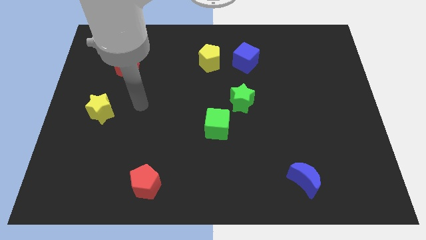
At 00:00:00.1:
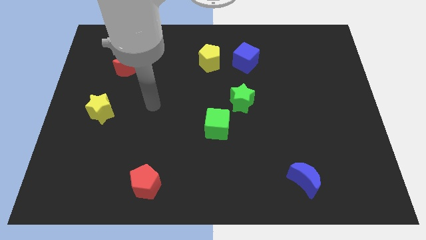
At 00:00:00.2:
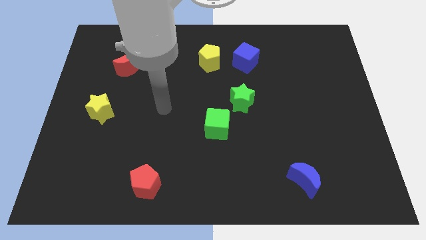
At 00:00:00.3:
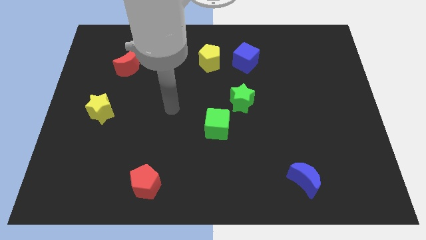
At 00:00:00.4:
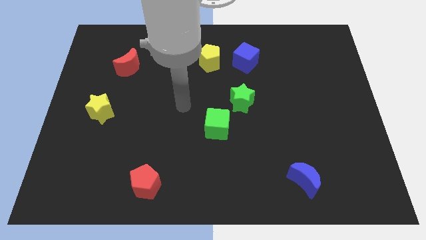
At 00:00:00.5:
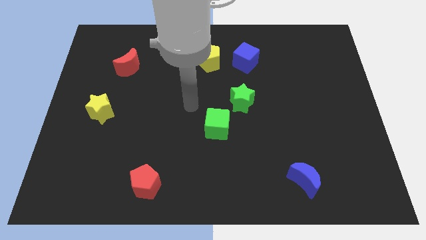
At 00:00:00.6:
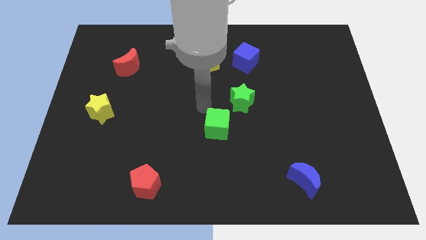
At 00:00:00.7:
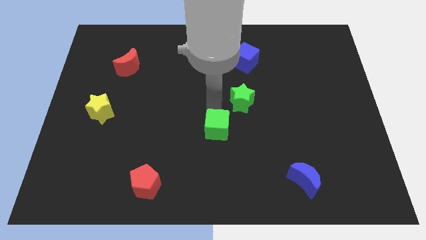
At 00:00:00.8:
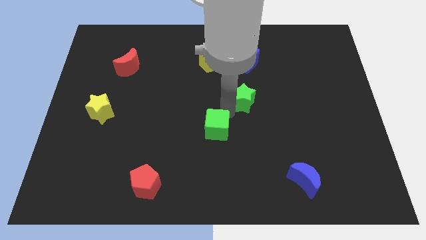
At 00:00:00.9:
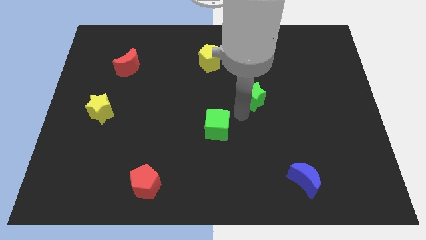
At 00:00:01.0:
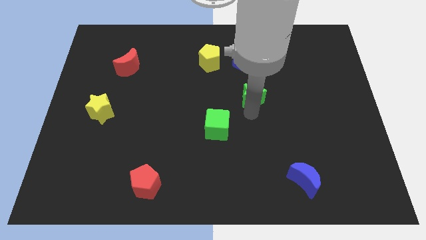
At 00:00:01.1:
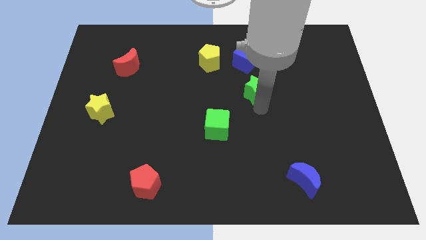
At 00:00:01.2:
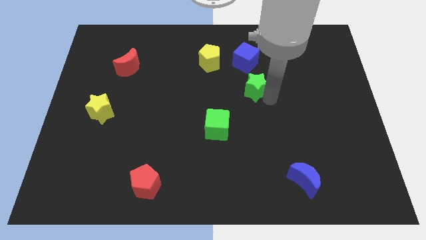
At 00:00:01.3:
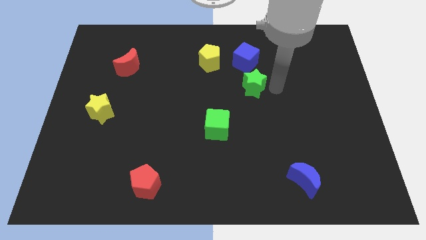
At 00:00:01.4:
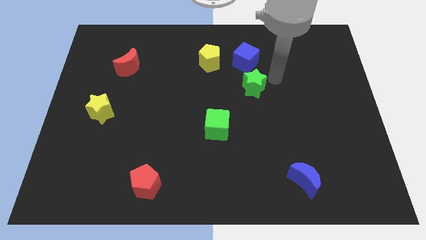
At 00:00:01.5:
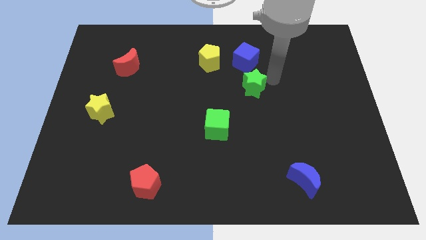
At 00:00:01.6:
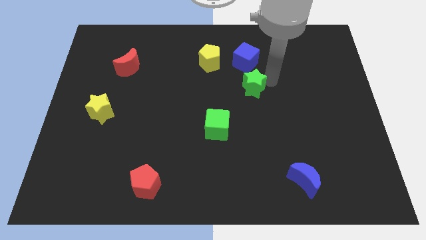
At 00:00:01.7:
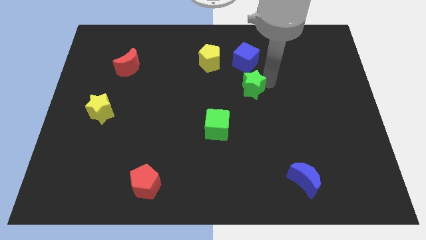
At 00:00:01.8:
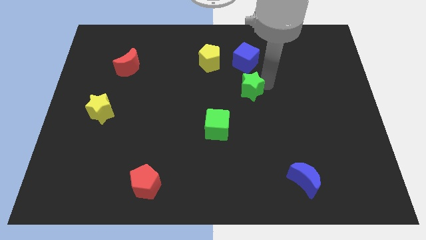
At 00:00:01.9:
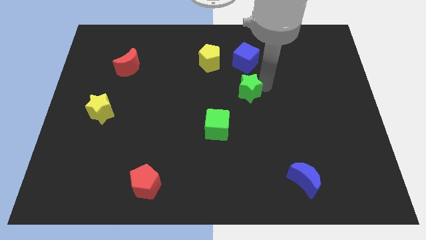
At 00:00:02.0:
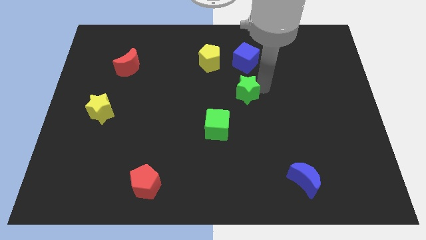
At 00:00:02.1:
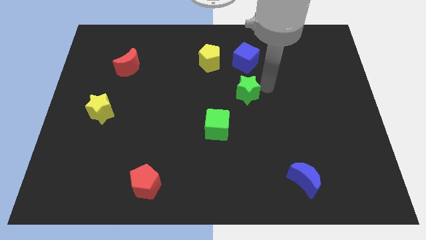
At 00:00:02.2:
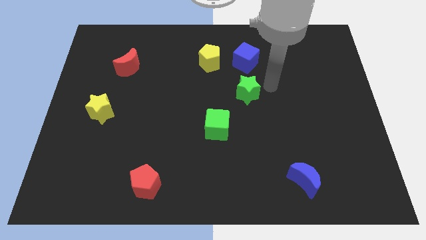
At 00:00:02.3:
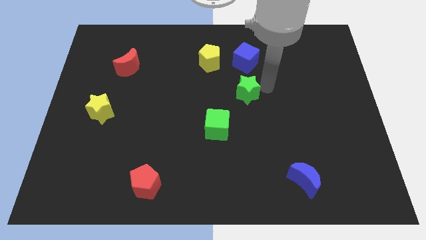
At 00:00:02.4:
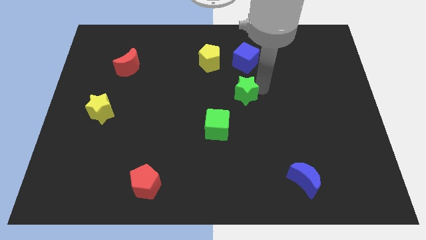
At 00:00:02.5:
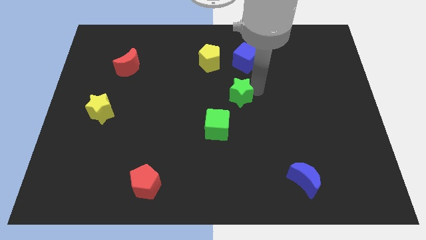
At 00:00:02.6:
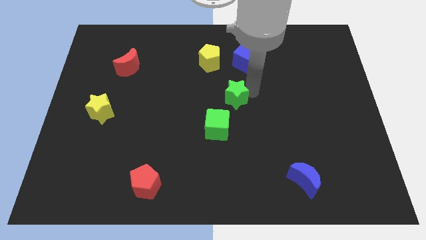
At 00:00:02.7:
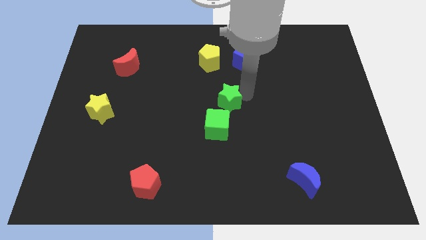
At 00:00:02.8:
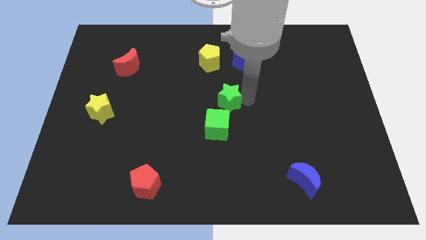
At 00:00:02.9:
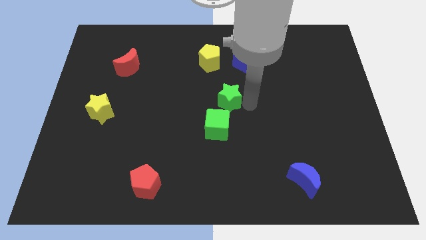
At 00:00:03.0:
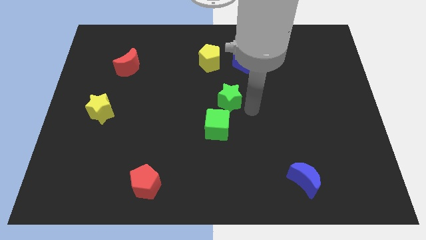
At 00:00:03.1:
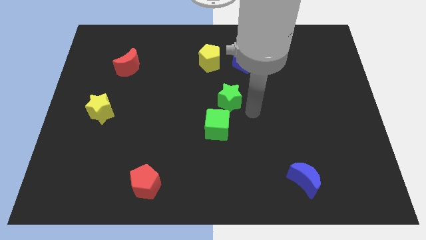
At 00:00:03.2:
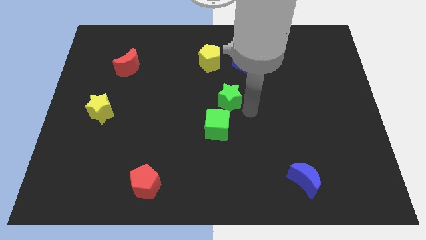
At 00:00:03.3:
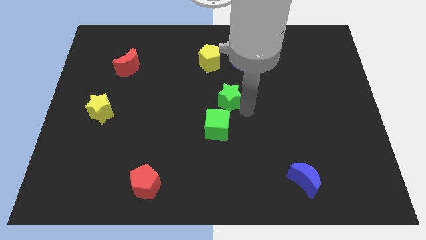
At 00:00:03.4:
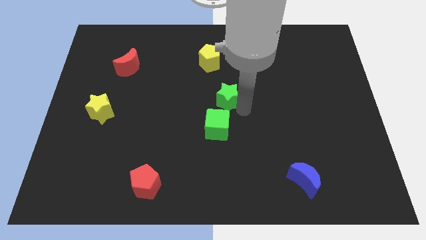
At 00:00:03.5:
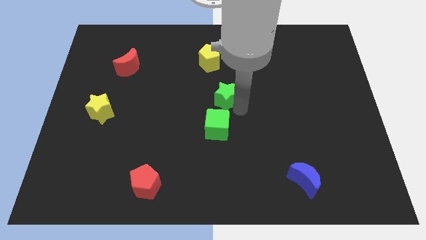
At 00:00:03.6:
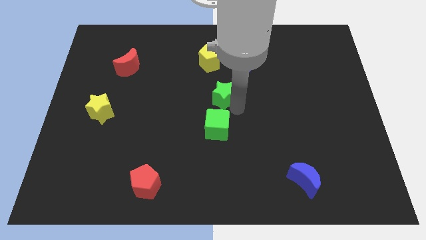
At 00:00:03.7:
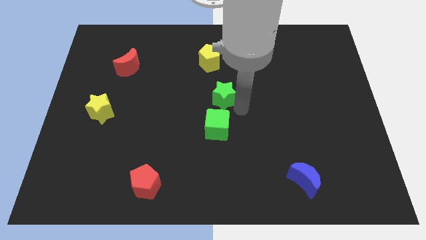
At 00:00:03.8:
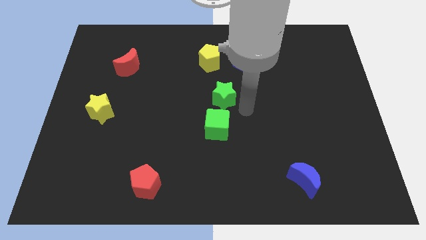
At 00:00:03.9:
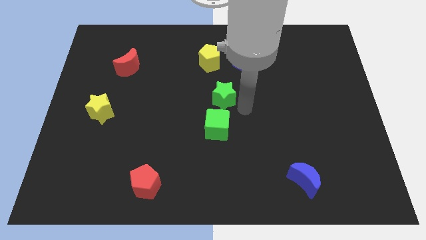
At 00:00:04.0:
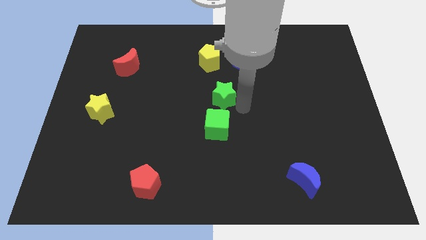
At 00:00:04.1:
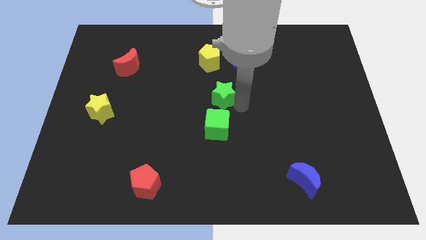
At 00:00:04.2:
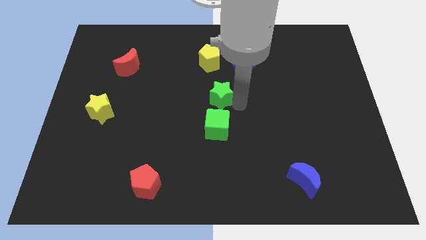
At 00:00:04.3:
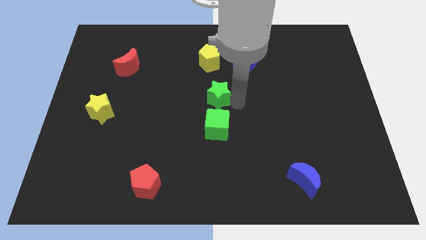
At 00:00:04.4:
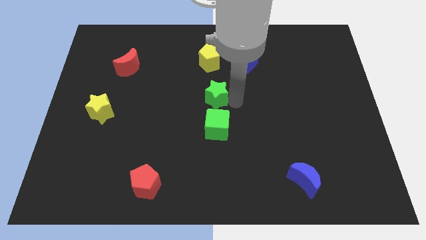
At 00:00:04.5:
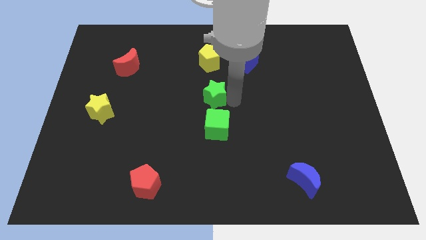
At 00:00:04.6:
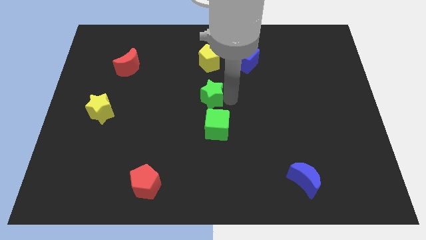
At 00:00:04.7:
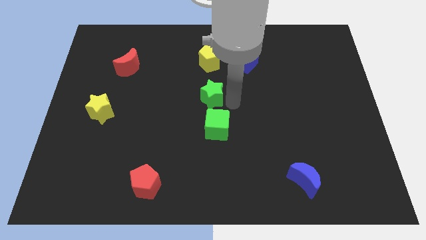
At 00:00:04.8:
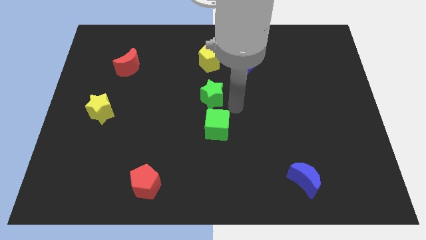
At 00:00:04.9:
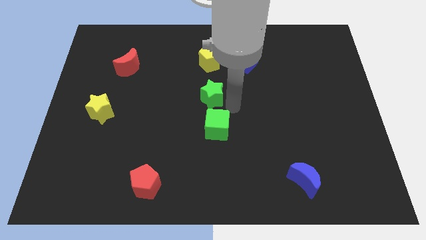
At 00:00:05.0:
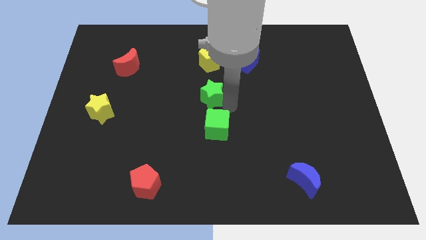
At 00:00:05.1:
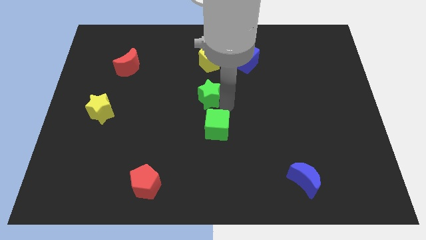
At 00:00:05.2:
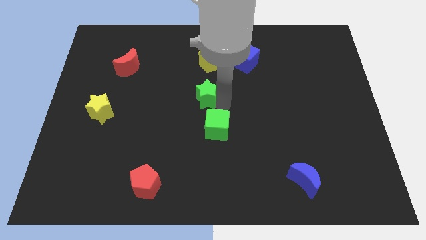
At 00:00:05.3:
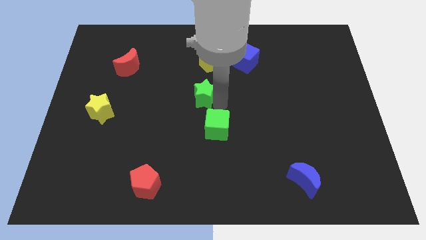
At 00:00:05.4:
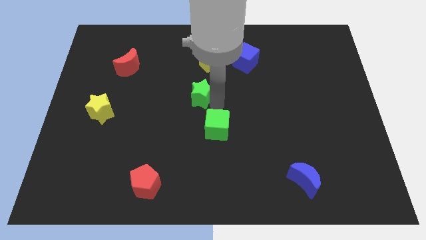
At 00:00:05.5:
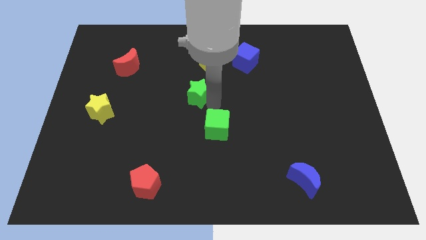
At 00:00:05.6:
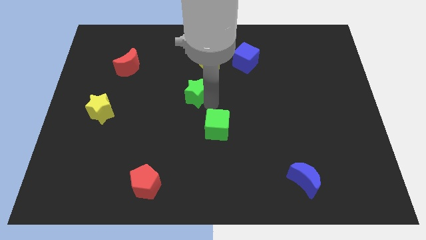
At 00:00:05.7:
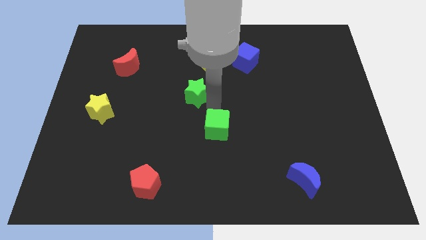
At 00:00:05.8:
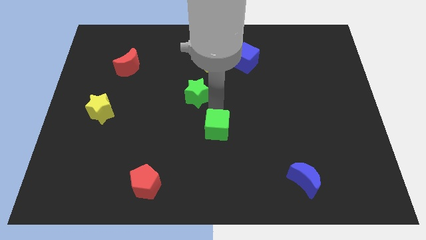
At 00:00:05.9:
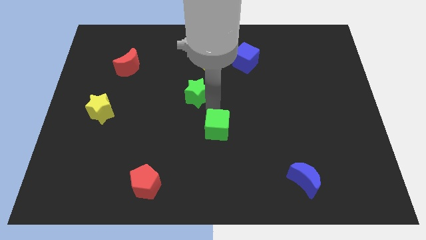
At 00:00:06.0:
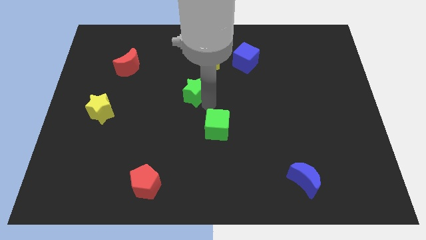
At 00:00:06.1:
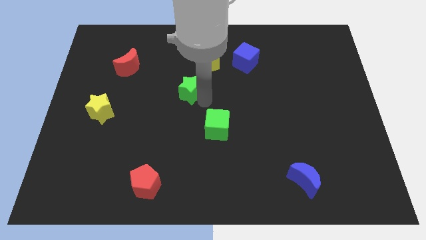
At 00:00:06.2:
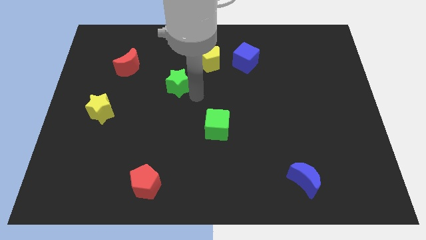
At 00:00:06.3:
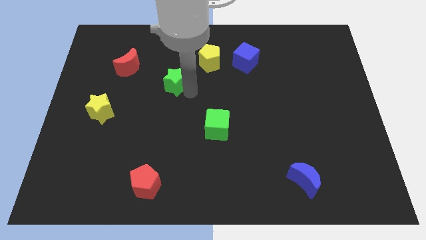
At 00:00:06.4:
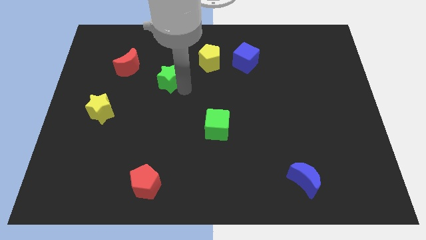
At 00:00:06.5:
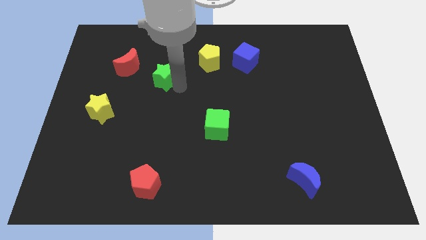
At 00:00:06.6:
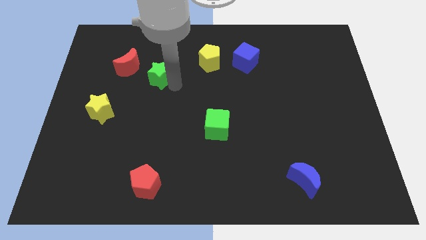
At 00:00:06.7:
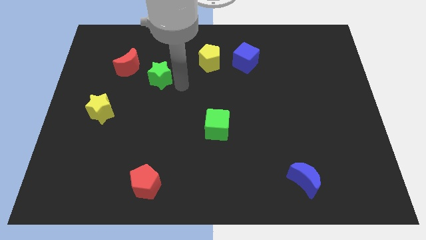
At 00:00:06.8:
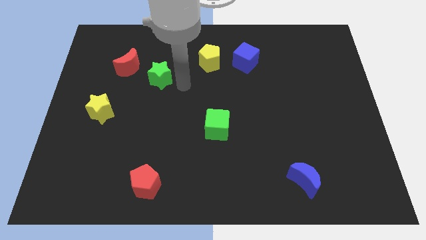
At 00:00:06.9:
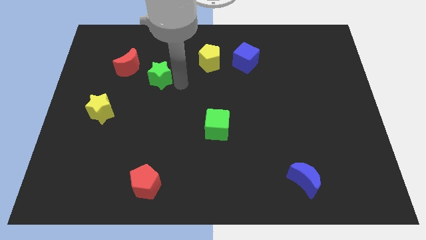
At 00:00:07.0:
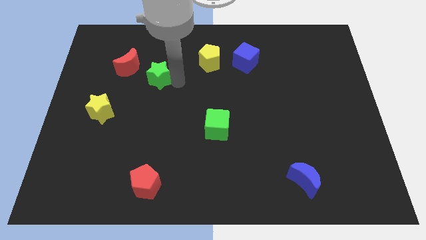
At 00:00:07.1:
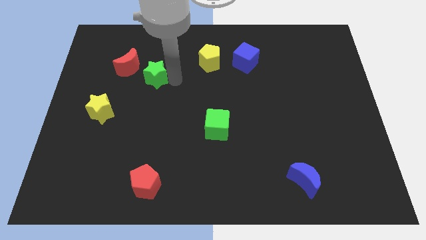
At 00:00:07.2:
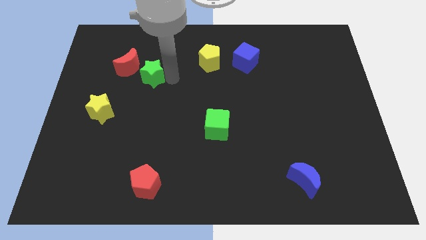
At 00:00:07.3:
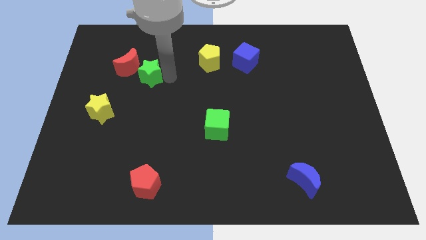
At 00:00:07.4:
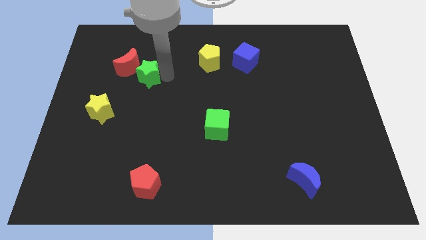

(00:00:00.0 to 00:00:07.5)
slide the green star to the red moon

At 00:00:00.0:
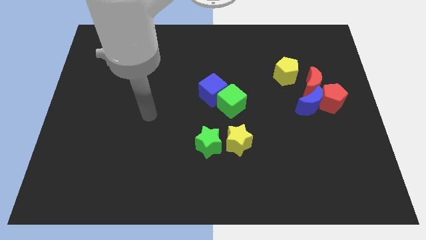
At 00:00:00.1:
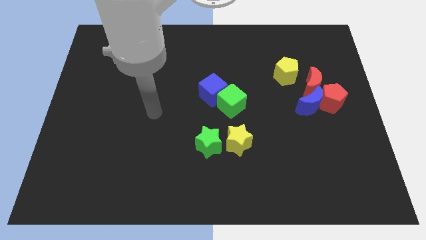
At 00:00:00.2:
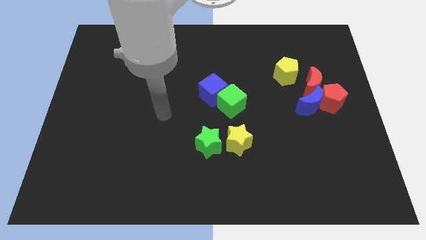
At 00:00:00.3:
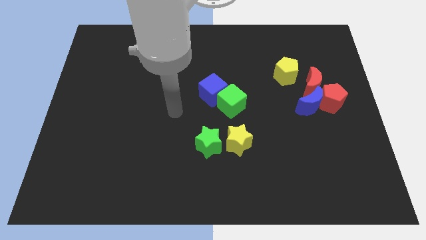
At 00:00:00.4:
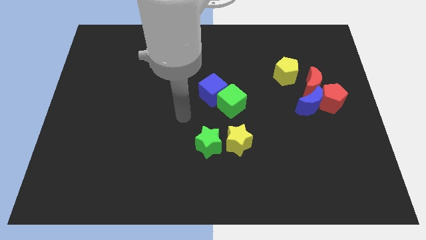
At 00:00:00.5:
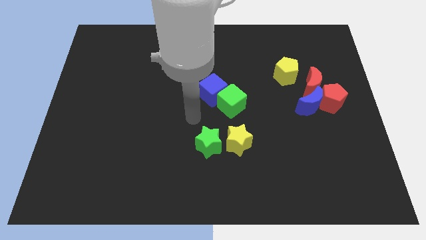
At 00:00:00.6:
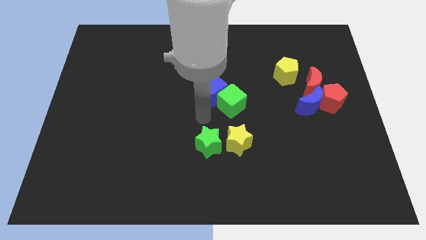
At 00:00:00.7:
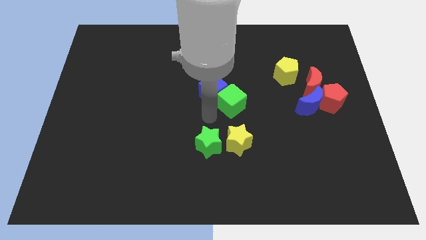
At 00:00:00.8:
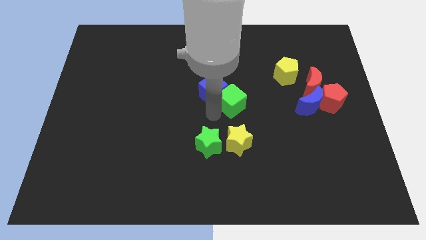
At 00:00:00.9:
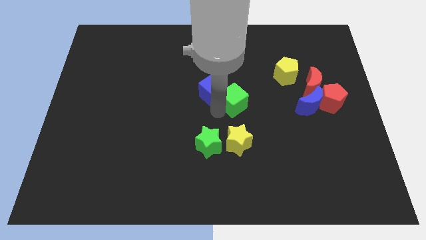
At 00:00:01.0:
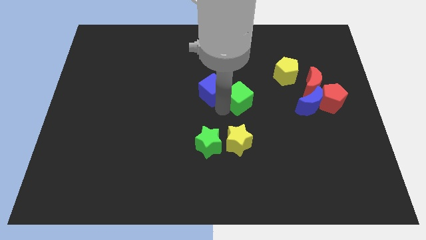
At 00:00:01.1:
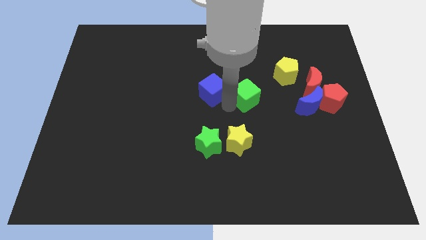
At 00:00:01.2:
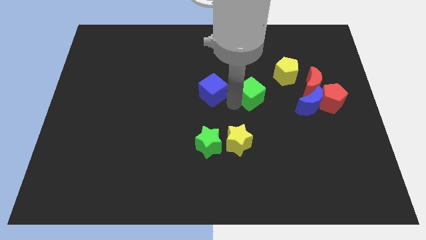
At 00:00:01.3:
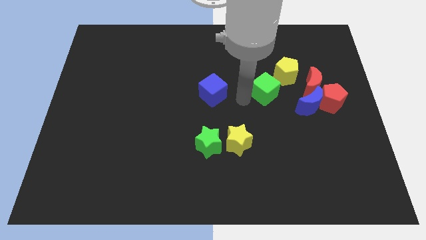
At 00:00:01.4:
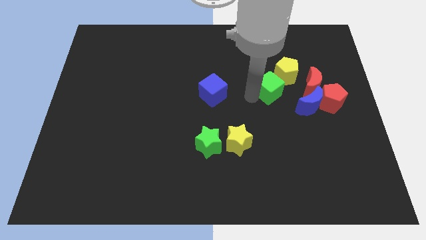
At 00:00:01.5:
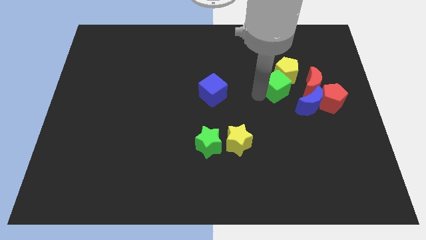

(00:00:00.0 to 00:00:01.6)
push the green cube to the yellow pentagon
